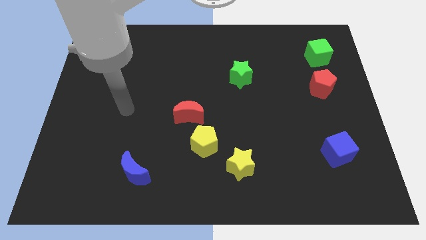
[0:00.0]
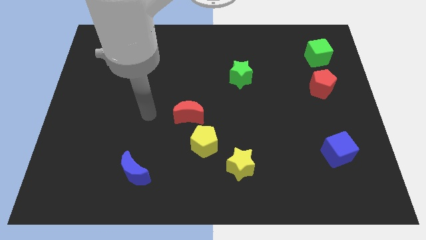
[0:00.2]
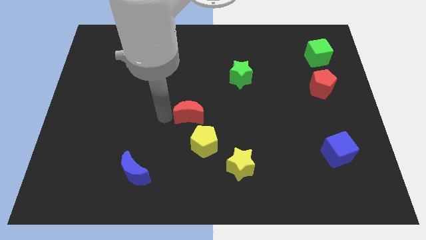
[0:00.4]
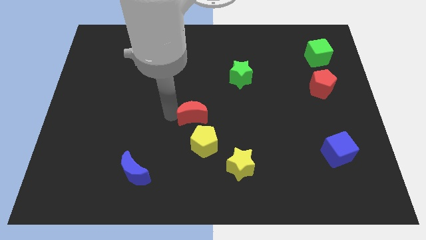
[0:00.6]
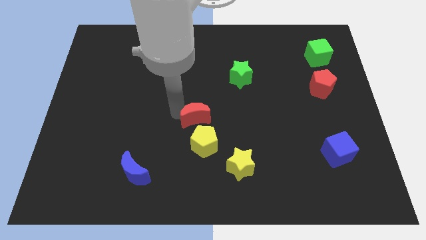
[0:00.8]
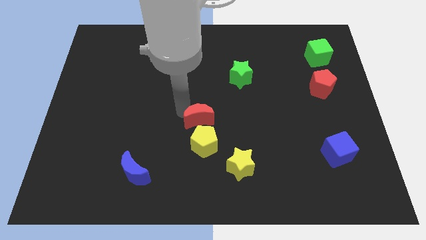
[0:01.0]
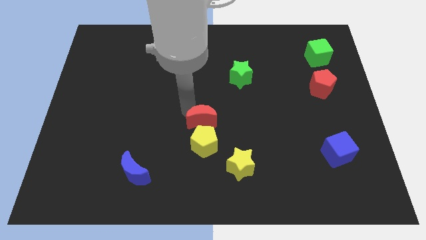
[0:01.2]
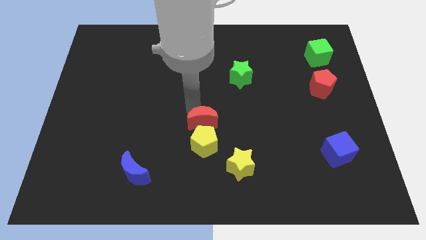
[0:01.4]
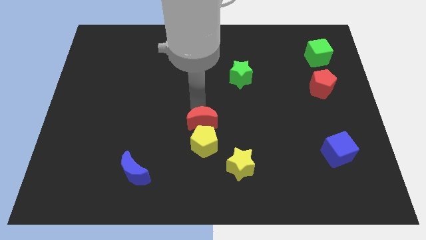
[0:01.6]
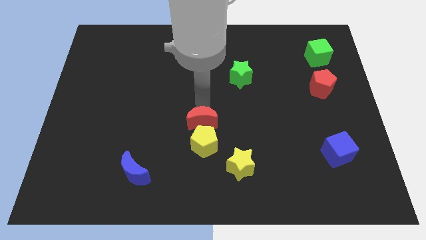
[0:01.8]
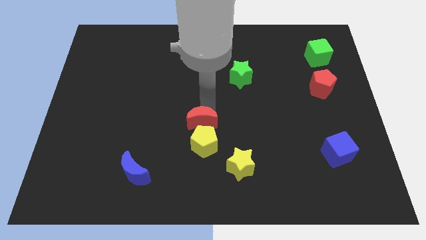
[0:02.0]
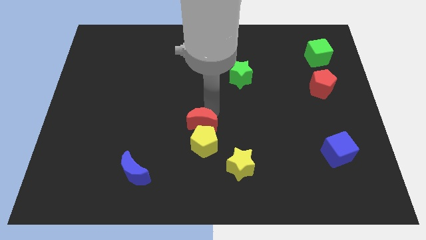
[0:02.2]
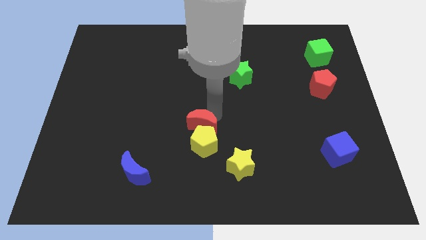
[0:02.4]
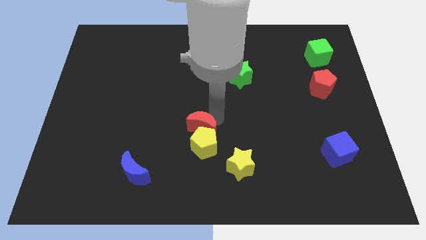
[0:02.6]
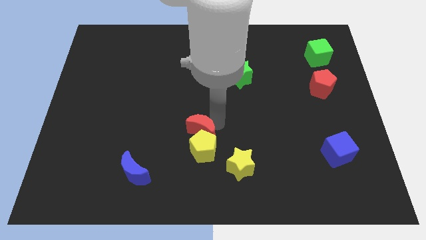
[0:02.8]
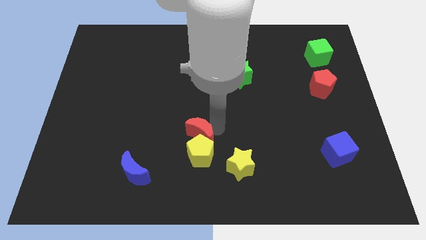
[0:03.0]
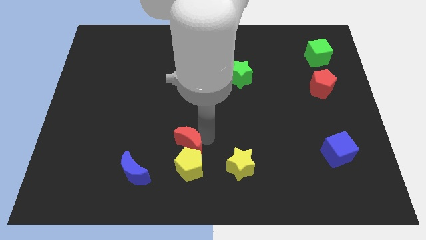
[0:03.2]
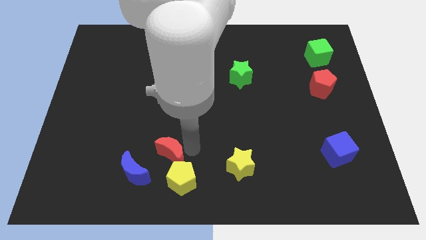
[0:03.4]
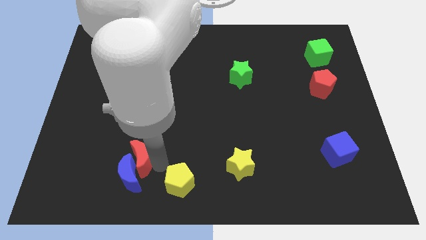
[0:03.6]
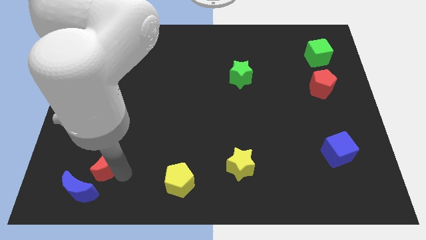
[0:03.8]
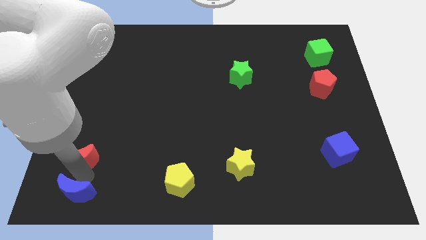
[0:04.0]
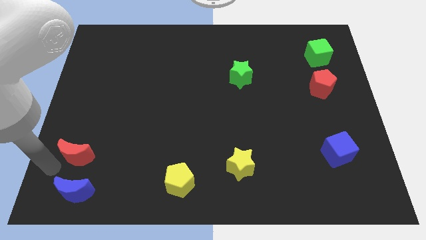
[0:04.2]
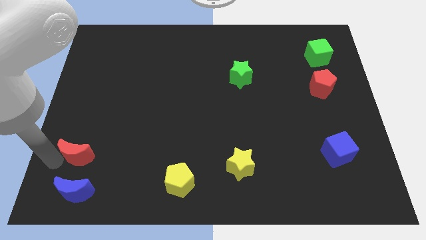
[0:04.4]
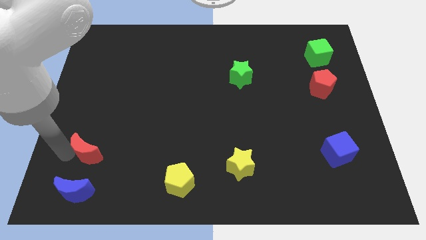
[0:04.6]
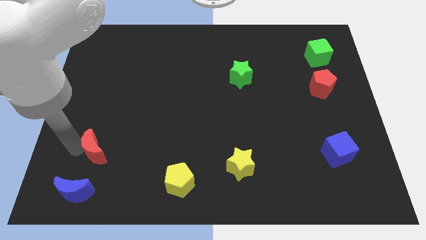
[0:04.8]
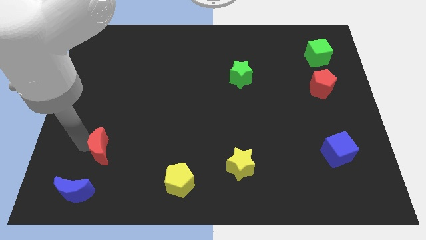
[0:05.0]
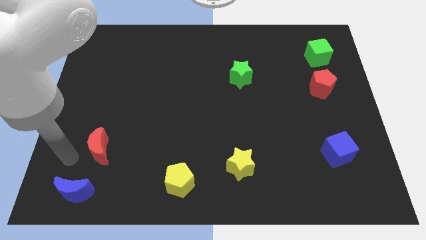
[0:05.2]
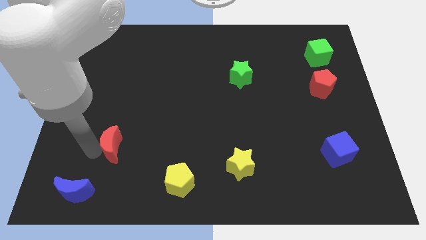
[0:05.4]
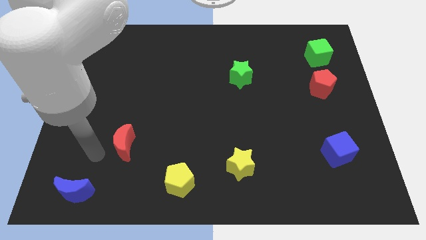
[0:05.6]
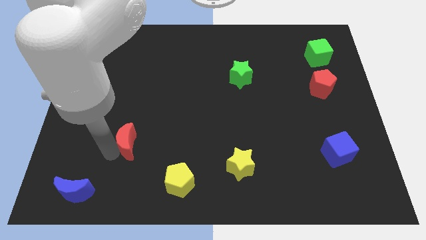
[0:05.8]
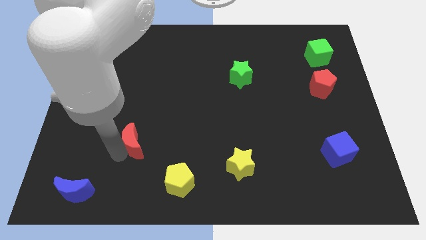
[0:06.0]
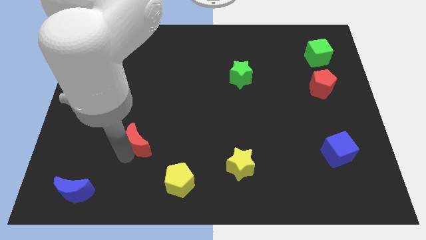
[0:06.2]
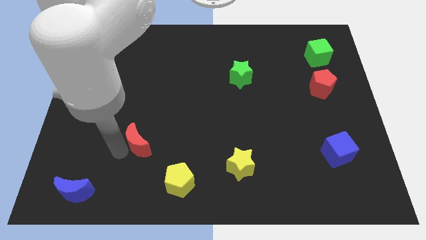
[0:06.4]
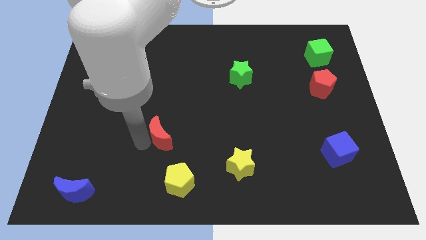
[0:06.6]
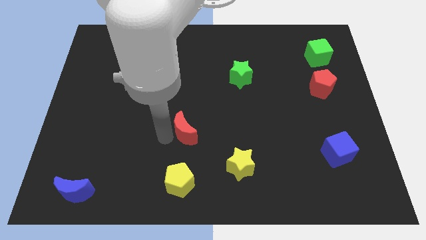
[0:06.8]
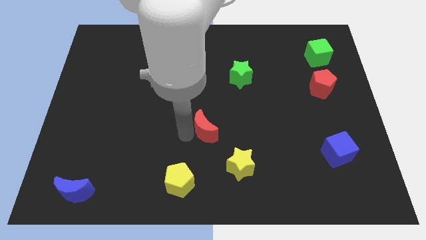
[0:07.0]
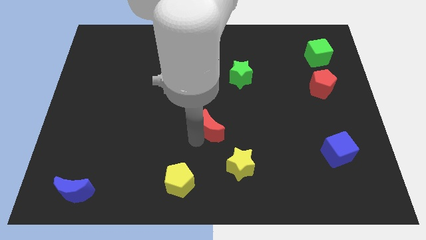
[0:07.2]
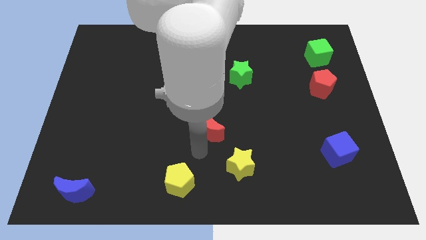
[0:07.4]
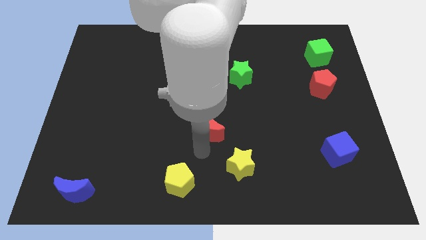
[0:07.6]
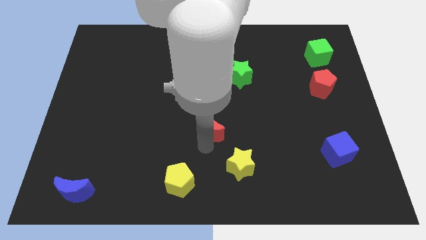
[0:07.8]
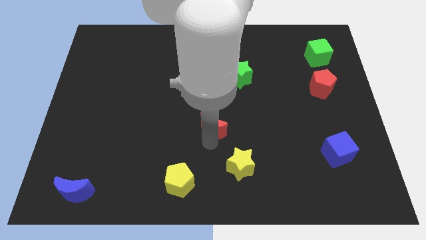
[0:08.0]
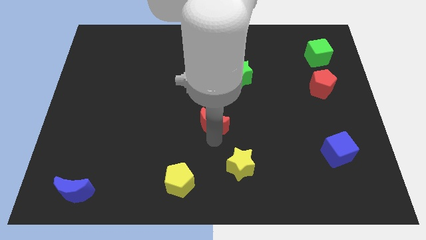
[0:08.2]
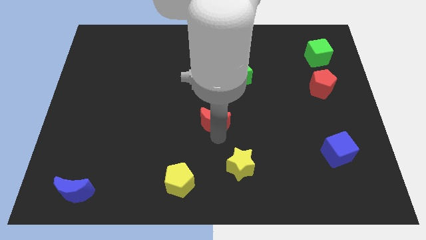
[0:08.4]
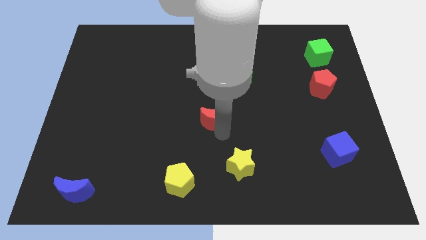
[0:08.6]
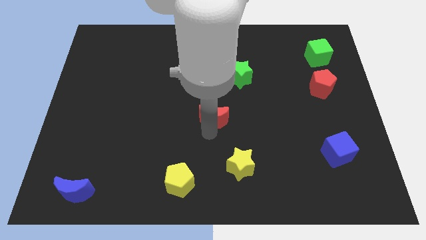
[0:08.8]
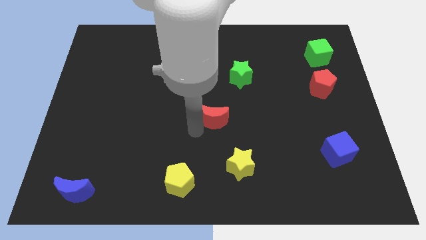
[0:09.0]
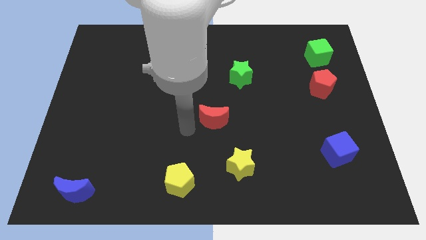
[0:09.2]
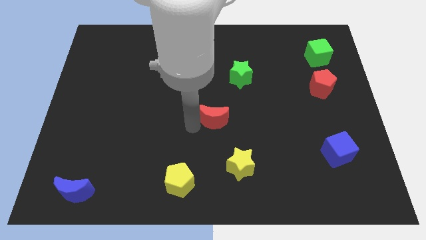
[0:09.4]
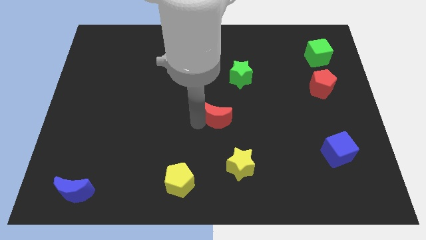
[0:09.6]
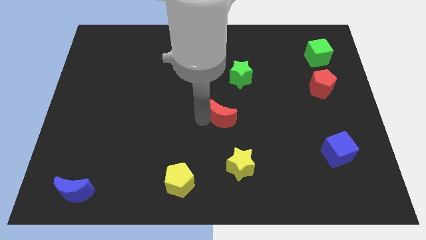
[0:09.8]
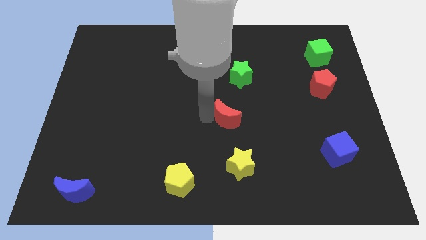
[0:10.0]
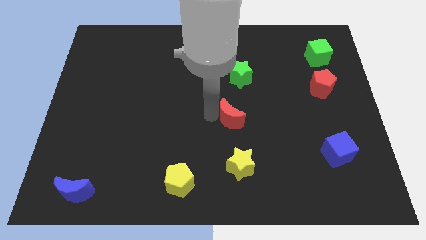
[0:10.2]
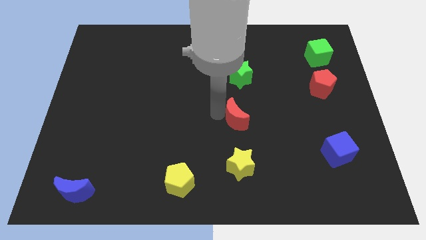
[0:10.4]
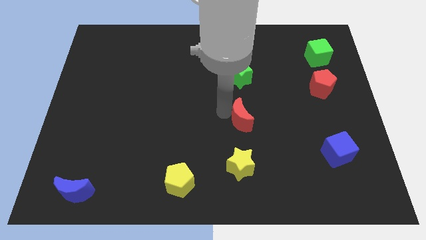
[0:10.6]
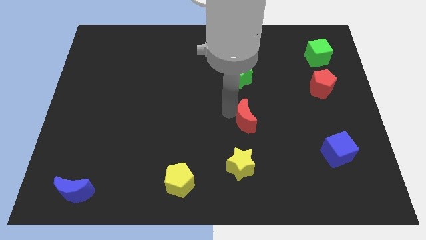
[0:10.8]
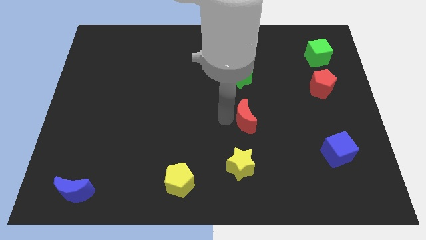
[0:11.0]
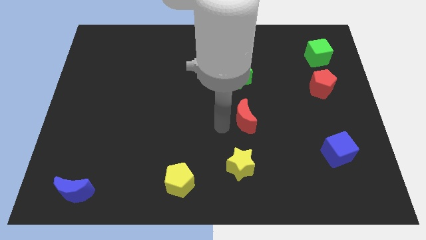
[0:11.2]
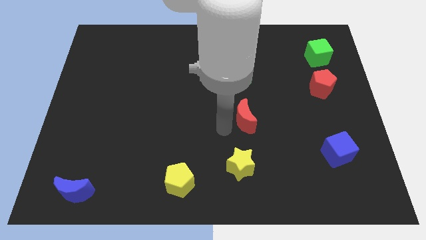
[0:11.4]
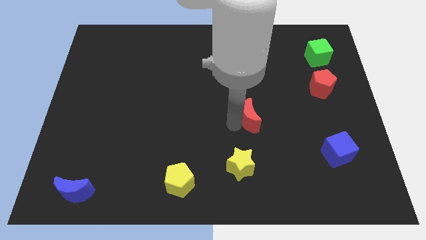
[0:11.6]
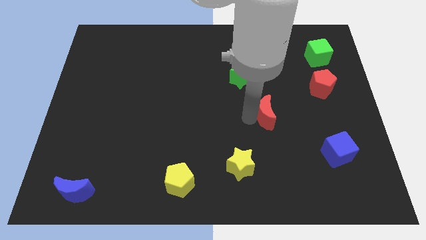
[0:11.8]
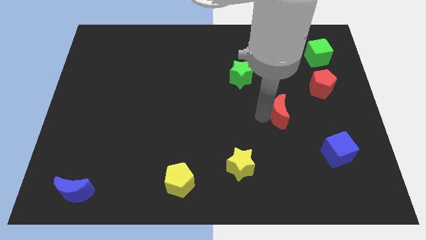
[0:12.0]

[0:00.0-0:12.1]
slide the red moon to the right

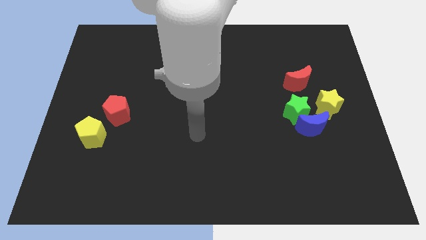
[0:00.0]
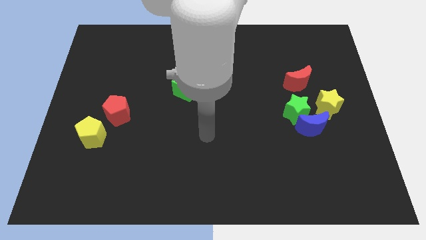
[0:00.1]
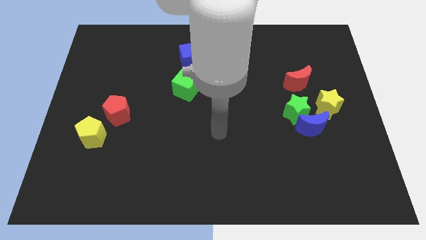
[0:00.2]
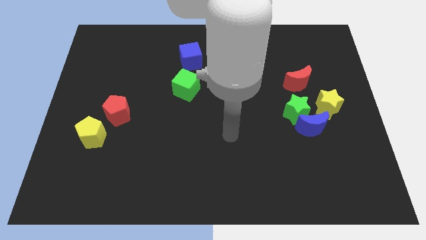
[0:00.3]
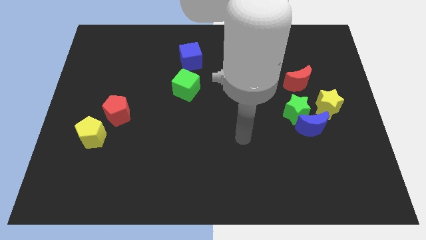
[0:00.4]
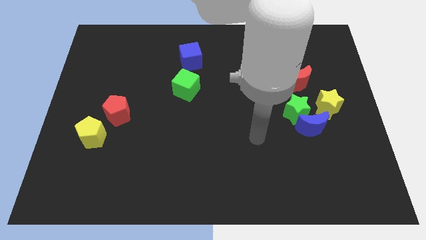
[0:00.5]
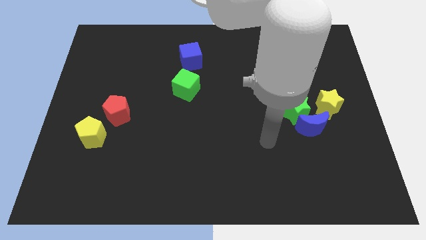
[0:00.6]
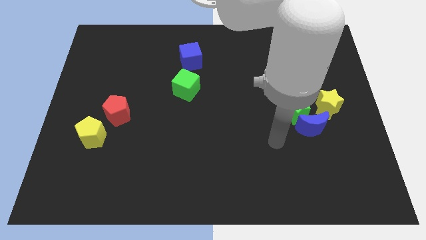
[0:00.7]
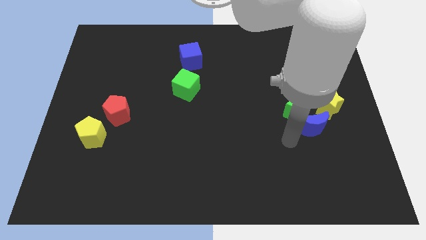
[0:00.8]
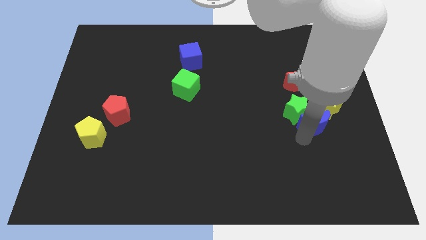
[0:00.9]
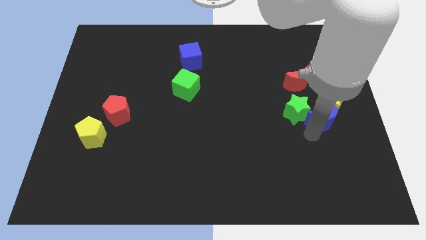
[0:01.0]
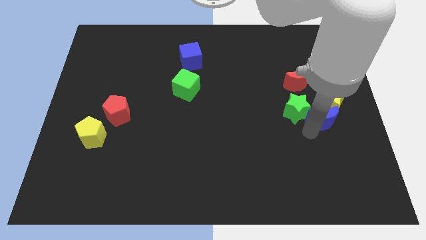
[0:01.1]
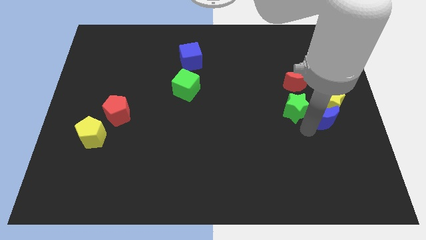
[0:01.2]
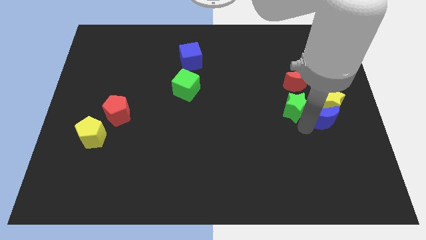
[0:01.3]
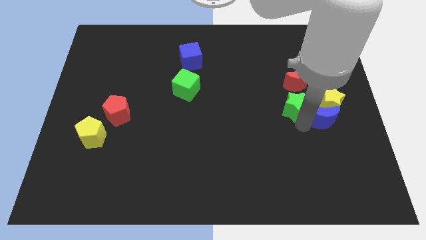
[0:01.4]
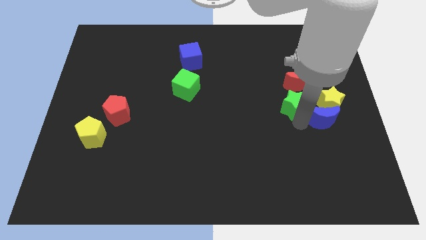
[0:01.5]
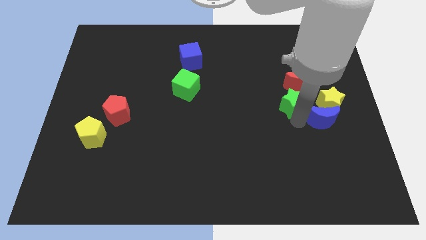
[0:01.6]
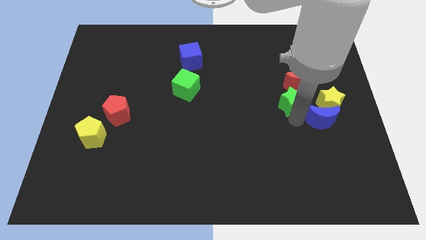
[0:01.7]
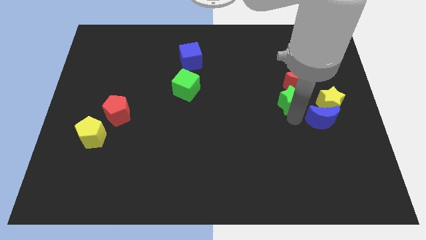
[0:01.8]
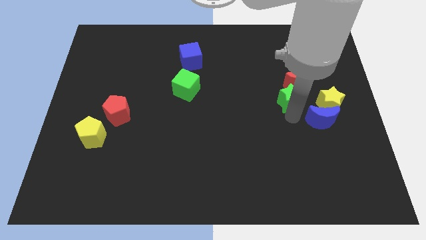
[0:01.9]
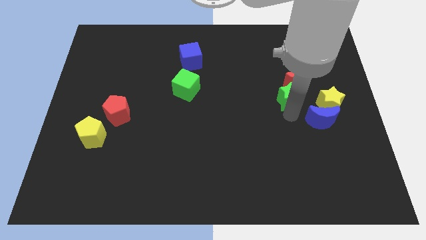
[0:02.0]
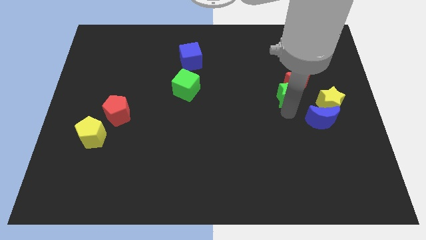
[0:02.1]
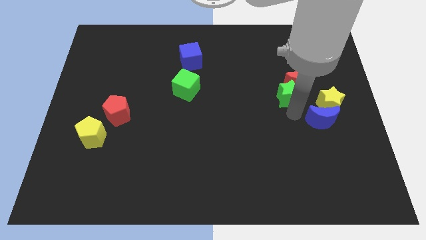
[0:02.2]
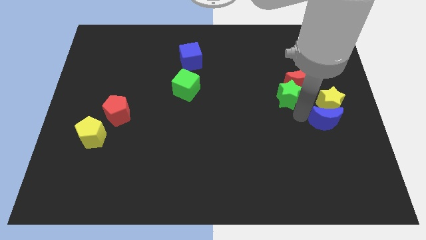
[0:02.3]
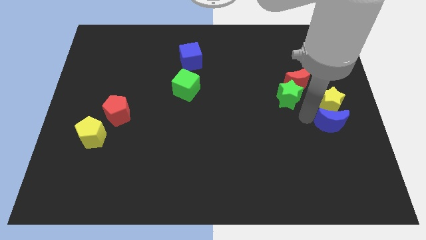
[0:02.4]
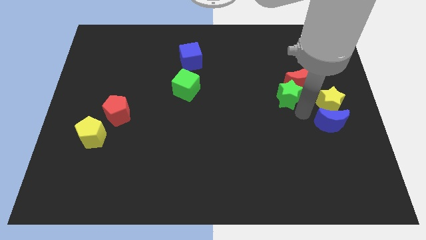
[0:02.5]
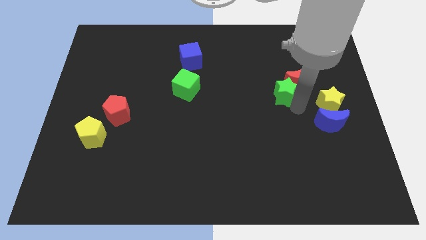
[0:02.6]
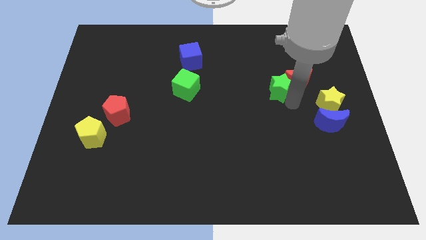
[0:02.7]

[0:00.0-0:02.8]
slightly slide the green star diagonally up and left
